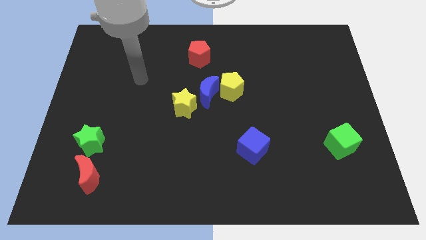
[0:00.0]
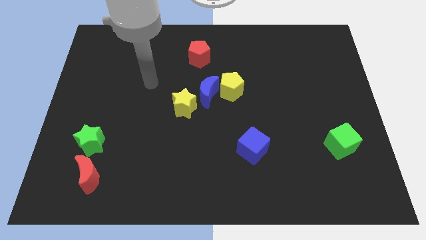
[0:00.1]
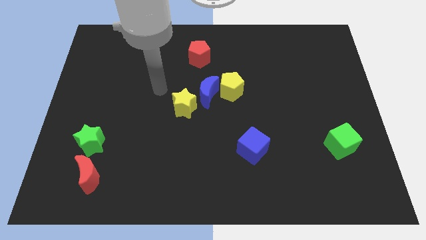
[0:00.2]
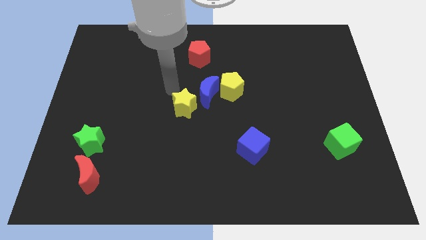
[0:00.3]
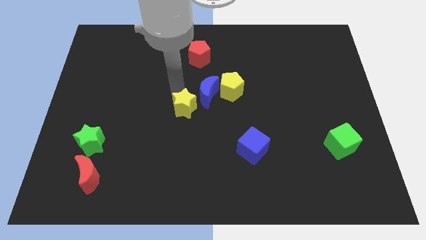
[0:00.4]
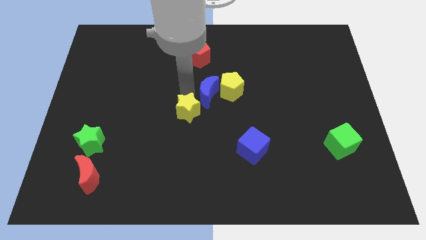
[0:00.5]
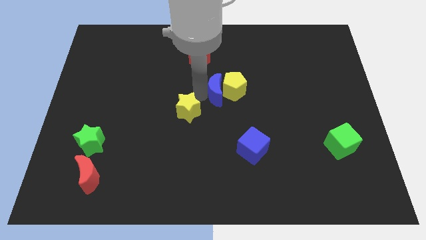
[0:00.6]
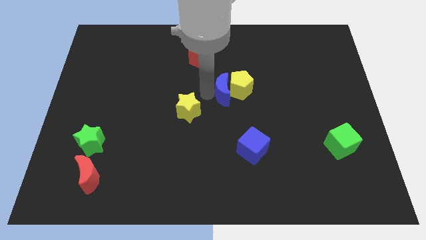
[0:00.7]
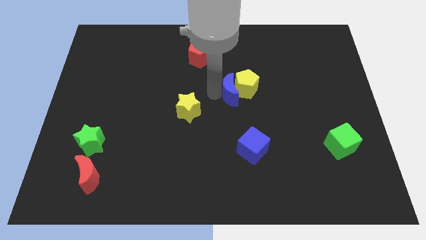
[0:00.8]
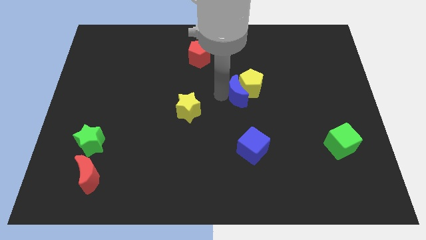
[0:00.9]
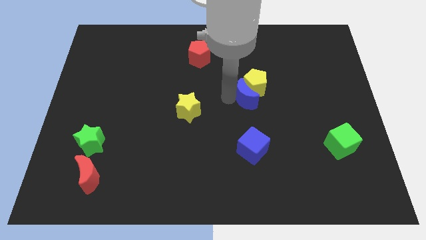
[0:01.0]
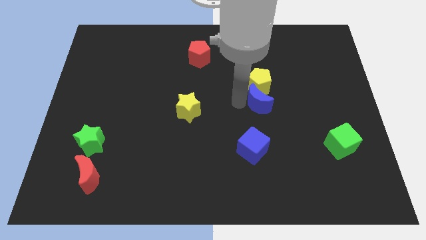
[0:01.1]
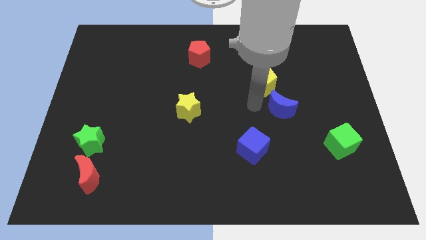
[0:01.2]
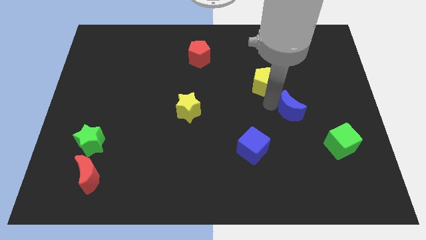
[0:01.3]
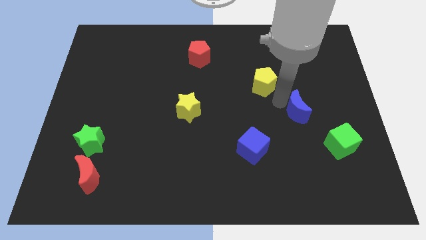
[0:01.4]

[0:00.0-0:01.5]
separate the yellow pentagon from the blue moon

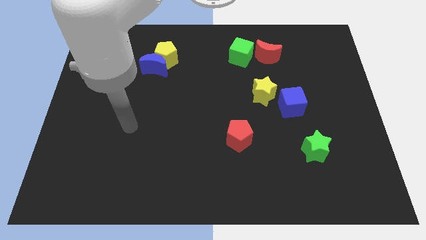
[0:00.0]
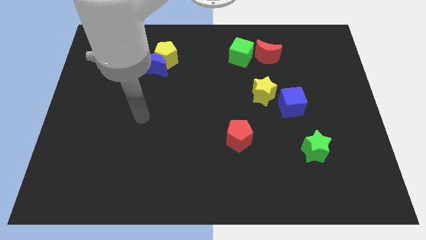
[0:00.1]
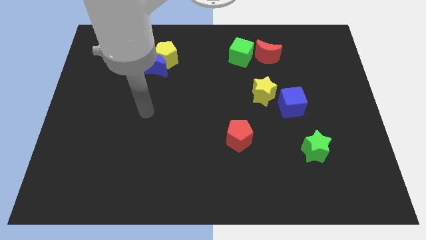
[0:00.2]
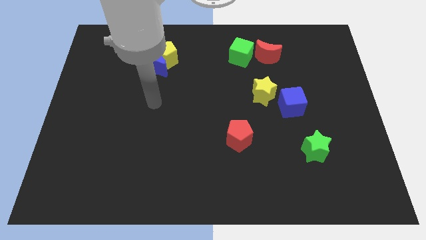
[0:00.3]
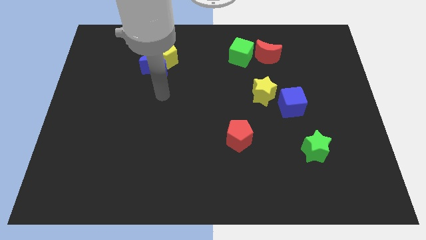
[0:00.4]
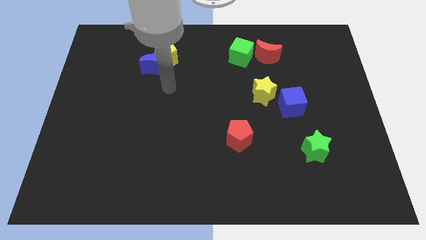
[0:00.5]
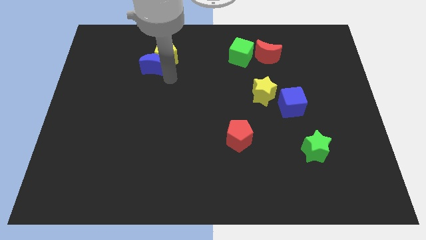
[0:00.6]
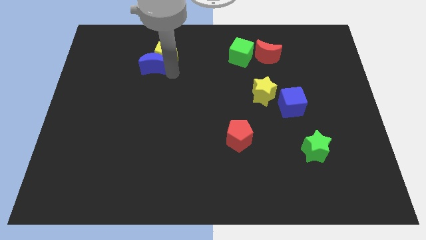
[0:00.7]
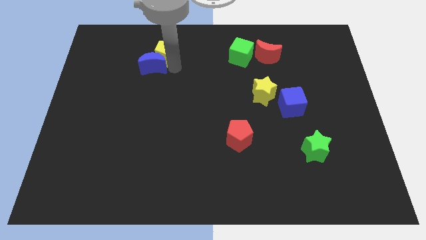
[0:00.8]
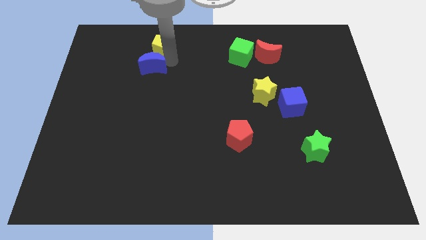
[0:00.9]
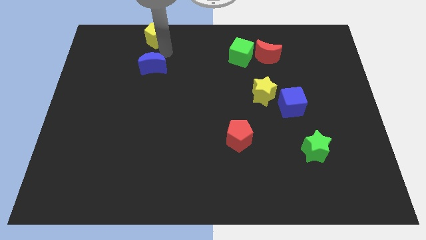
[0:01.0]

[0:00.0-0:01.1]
separate the blue moon from the yellow pentagon

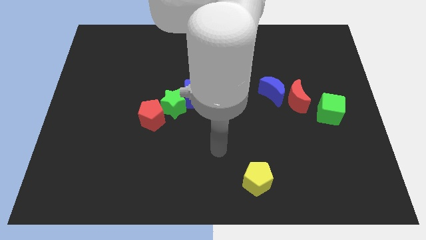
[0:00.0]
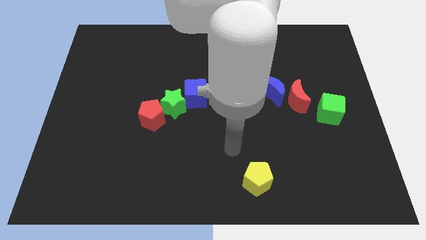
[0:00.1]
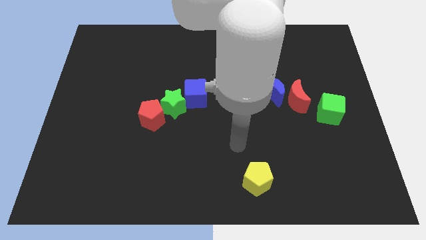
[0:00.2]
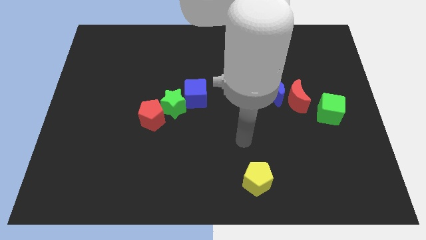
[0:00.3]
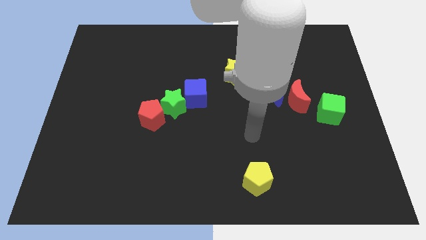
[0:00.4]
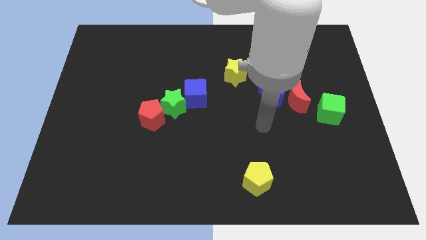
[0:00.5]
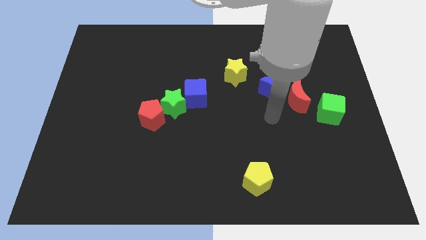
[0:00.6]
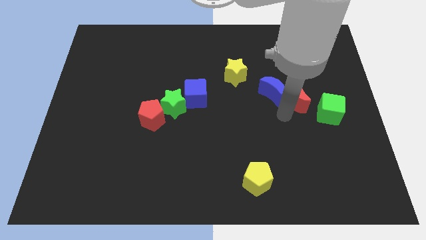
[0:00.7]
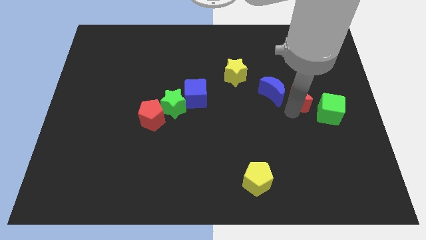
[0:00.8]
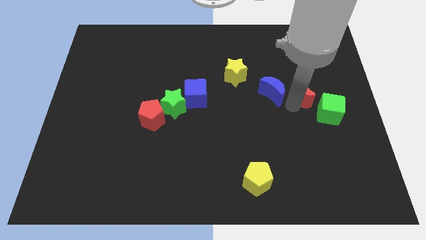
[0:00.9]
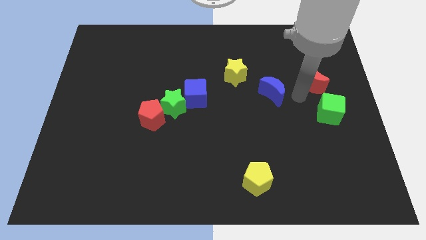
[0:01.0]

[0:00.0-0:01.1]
move the blue moon away from the red moon

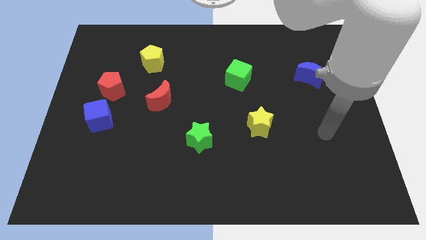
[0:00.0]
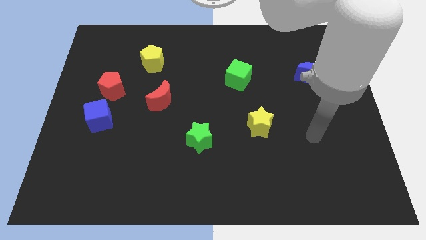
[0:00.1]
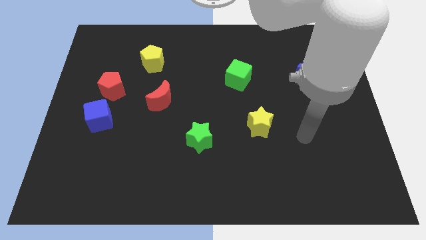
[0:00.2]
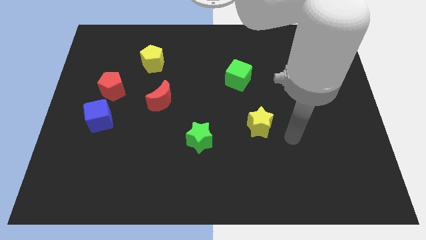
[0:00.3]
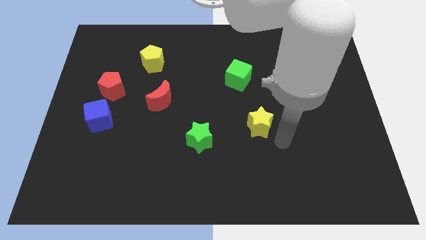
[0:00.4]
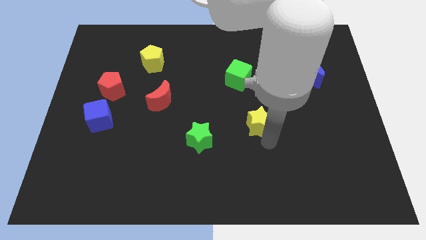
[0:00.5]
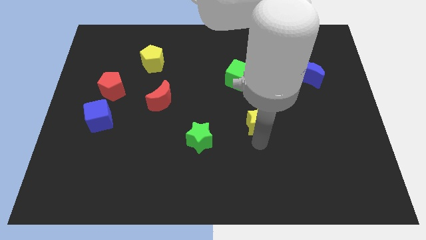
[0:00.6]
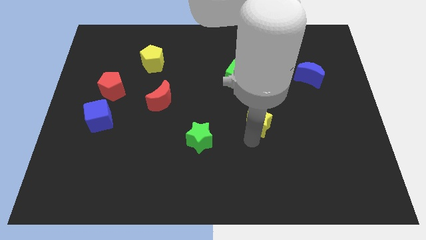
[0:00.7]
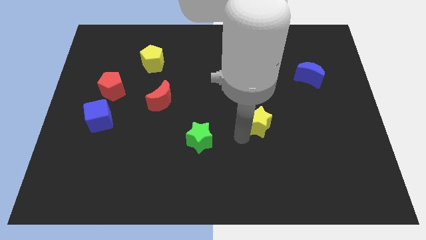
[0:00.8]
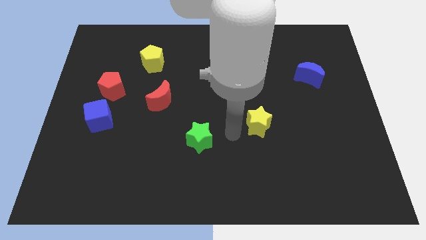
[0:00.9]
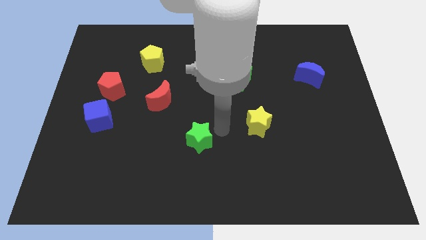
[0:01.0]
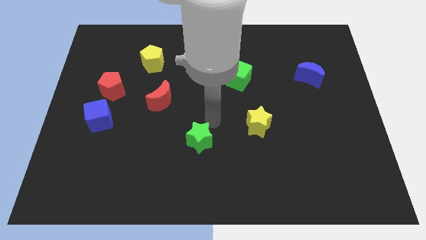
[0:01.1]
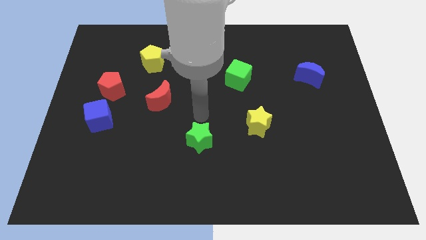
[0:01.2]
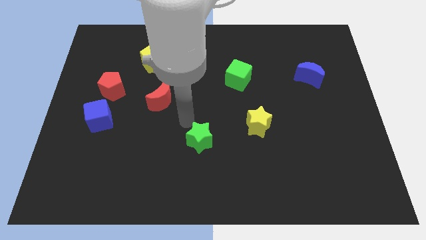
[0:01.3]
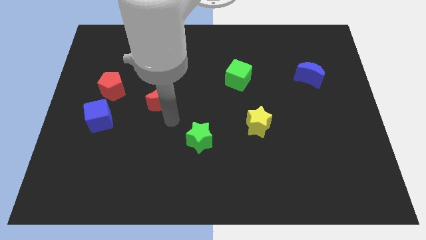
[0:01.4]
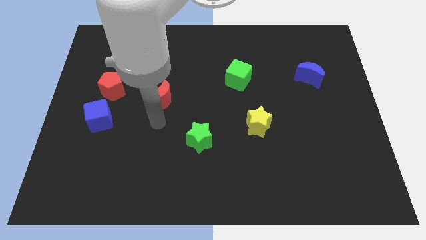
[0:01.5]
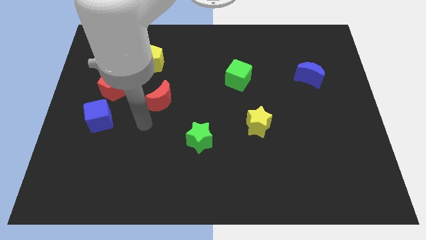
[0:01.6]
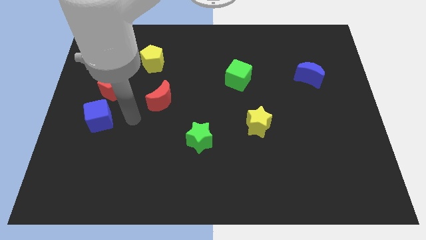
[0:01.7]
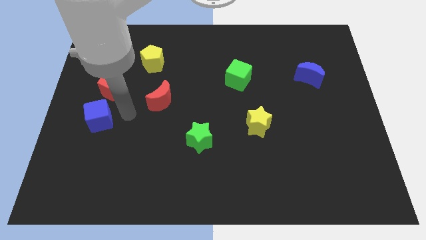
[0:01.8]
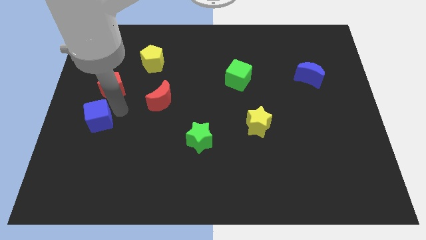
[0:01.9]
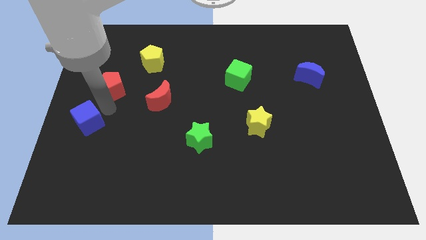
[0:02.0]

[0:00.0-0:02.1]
pull the red pentagon apart from the blue cube

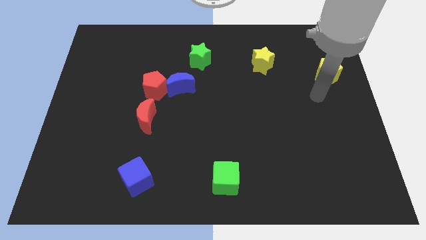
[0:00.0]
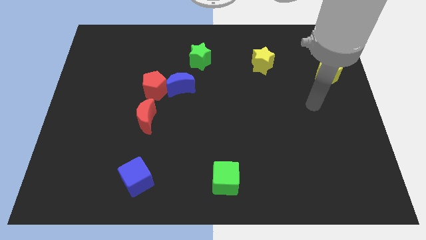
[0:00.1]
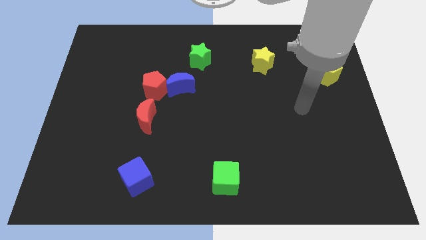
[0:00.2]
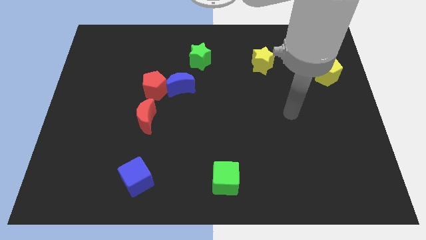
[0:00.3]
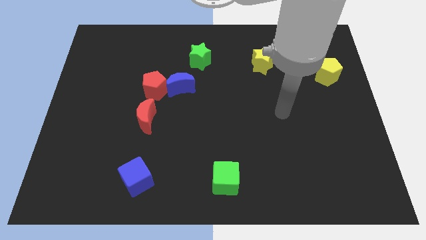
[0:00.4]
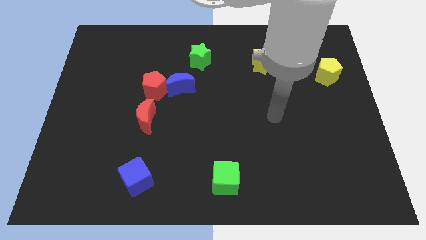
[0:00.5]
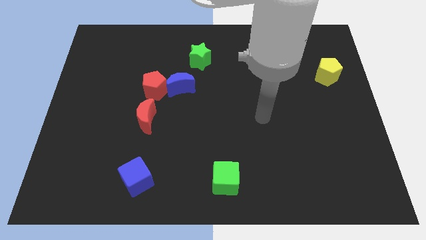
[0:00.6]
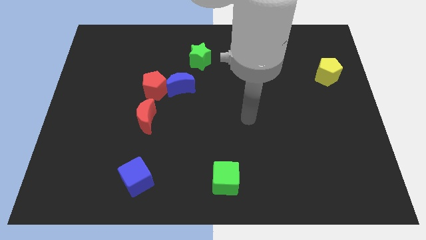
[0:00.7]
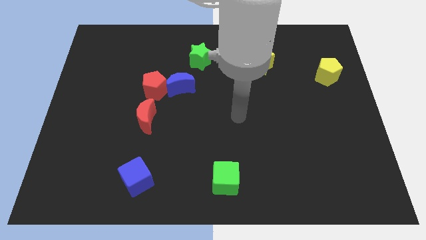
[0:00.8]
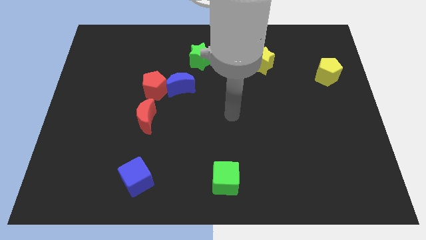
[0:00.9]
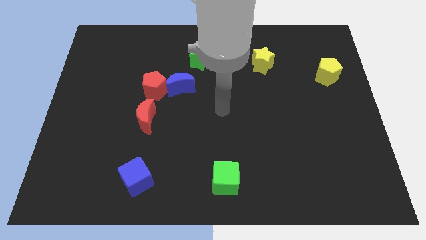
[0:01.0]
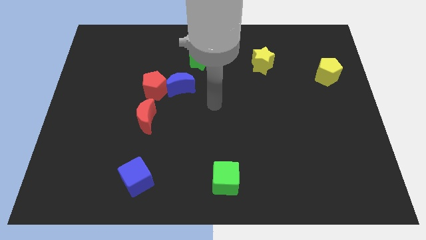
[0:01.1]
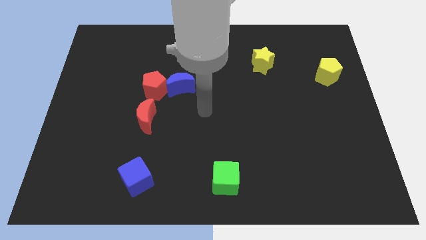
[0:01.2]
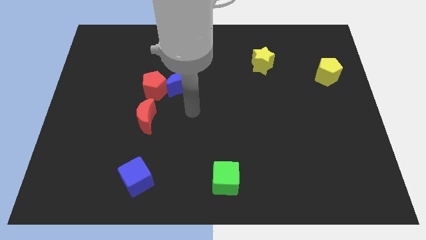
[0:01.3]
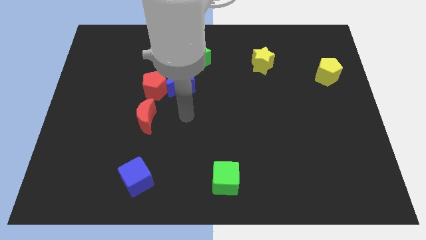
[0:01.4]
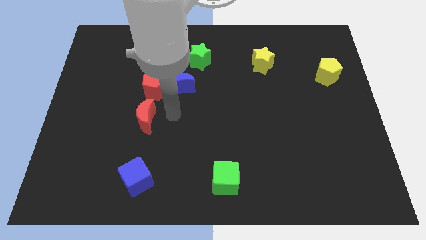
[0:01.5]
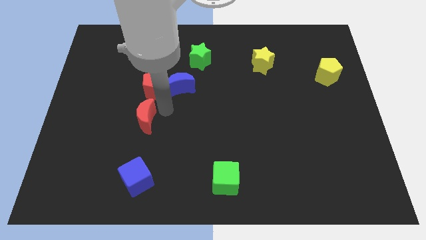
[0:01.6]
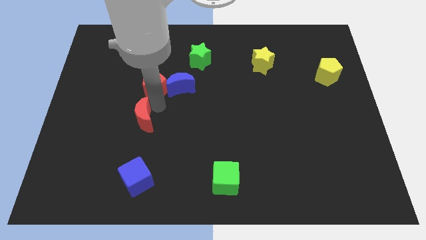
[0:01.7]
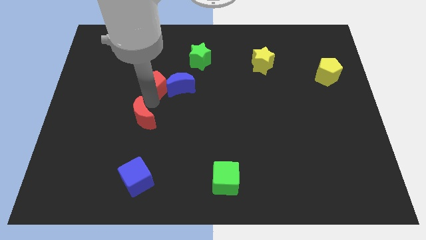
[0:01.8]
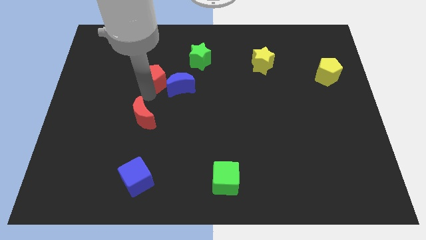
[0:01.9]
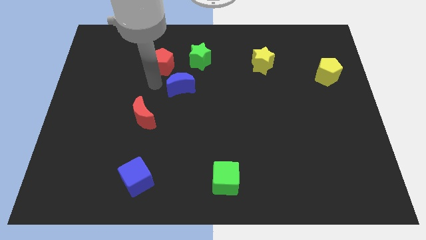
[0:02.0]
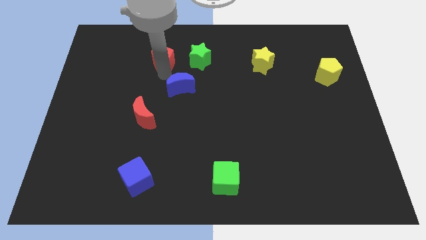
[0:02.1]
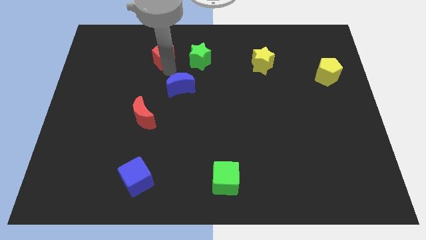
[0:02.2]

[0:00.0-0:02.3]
separate the blue moon from the red pentagon

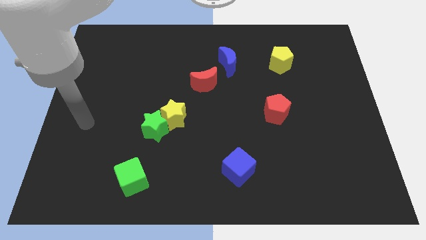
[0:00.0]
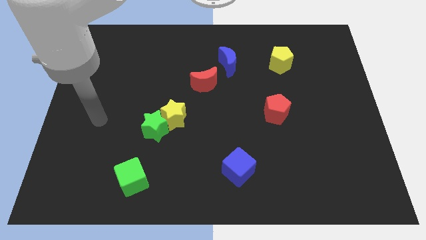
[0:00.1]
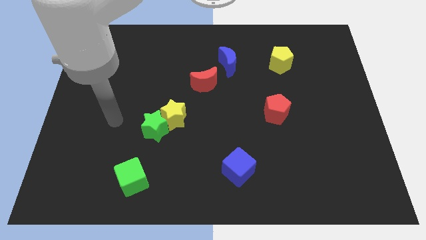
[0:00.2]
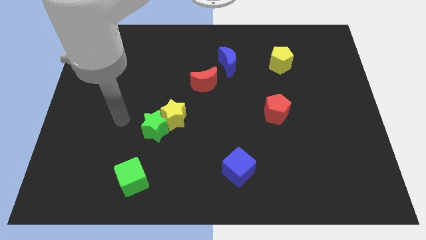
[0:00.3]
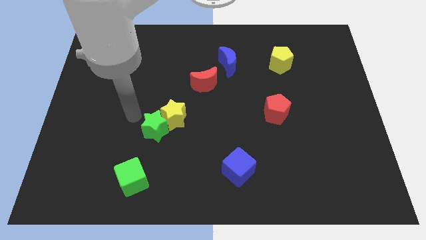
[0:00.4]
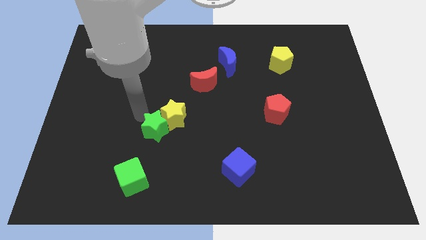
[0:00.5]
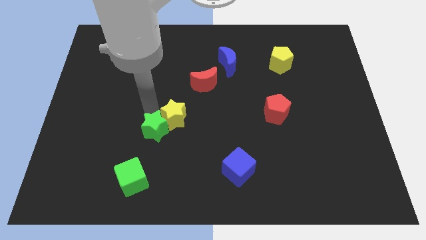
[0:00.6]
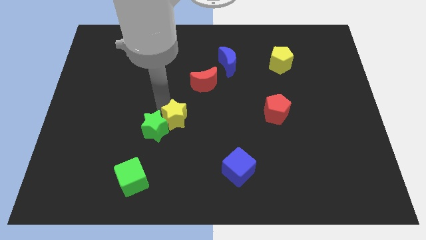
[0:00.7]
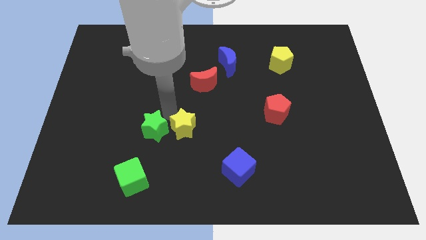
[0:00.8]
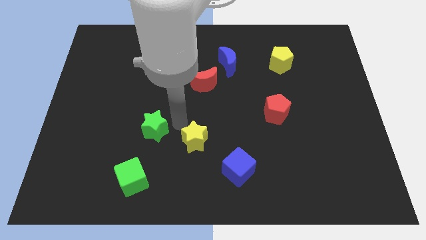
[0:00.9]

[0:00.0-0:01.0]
move the green star away from the yellow star
